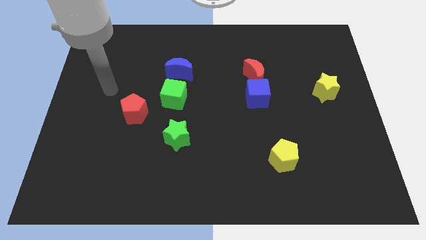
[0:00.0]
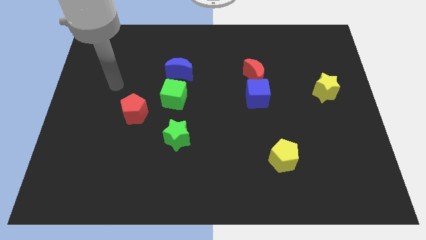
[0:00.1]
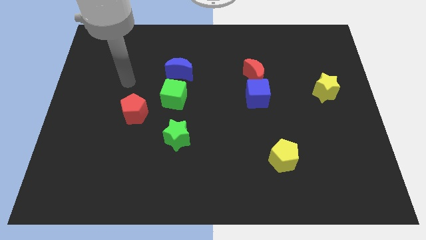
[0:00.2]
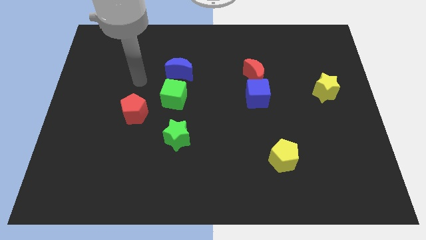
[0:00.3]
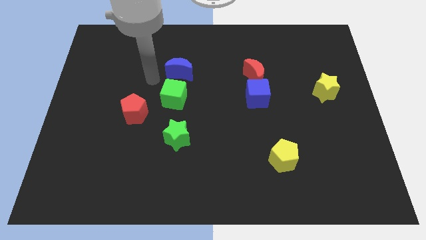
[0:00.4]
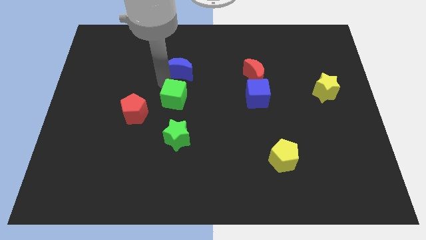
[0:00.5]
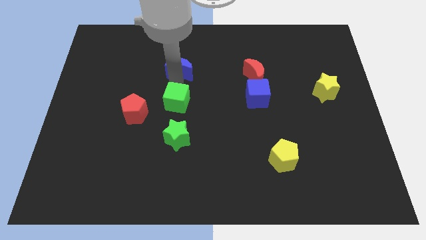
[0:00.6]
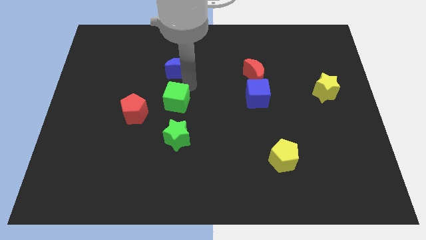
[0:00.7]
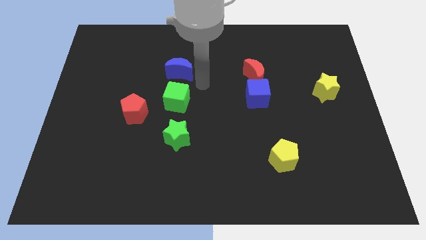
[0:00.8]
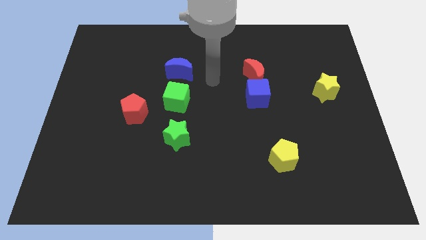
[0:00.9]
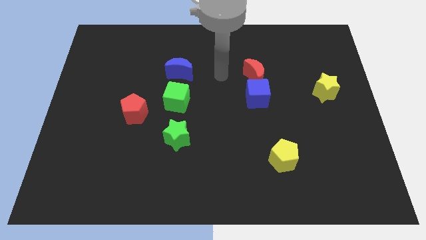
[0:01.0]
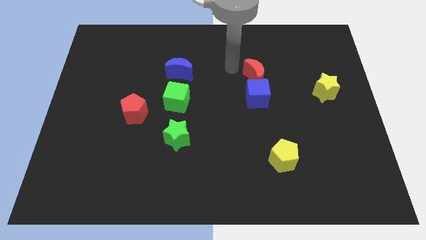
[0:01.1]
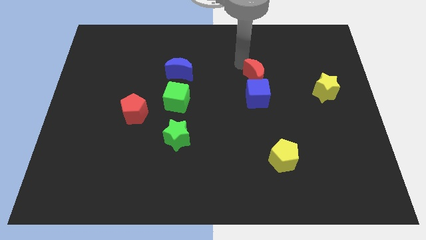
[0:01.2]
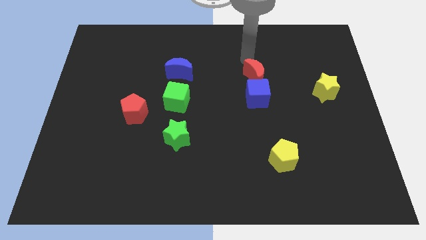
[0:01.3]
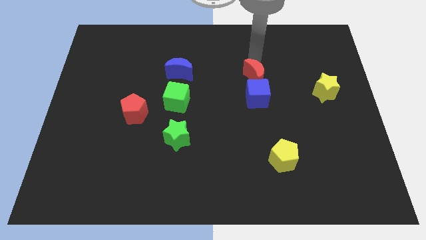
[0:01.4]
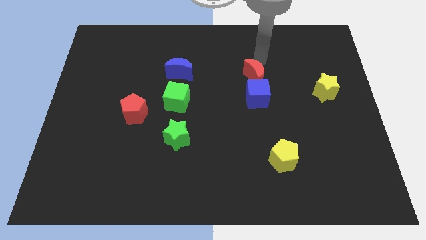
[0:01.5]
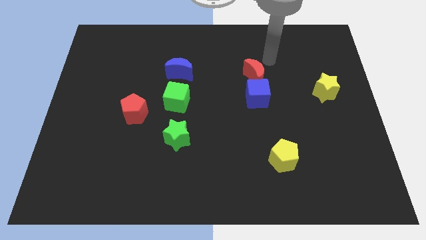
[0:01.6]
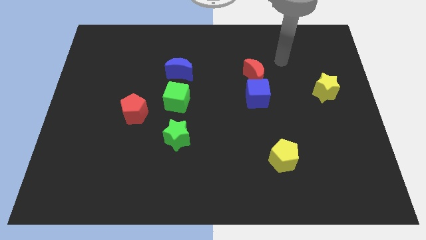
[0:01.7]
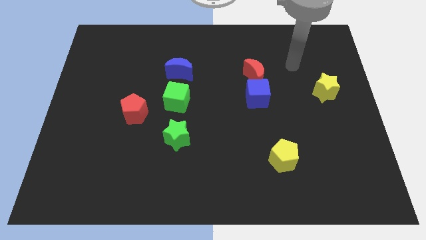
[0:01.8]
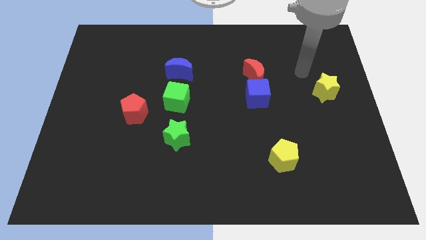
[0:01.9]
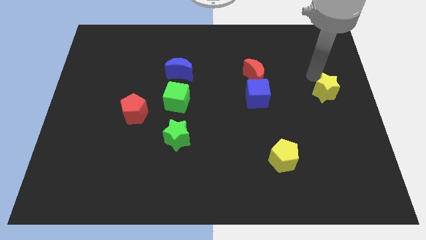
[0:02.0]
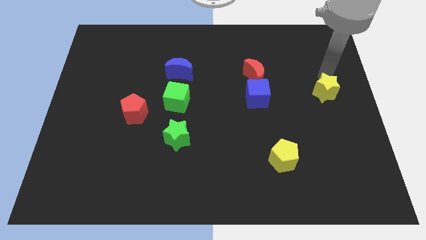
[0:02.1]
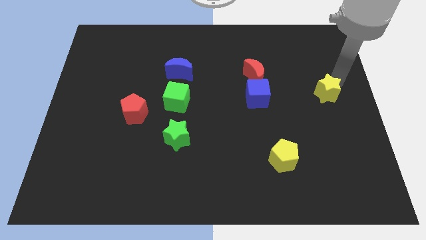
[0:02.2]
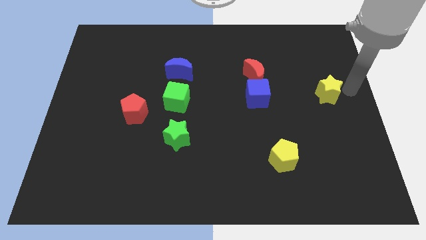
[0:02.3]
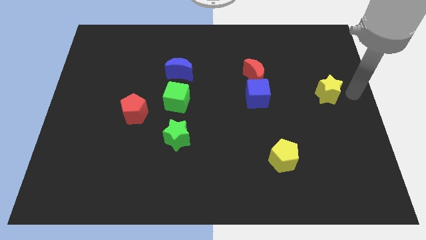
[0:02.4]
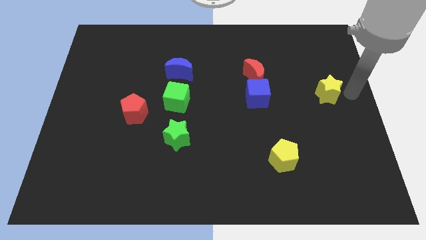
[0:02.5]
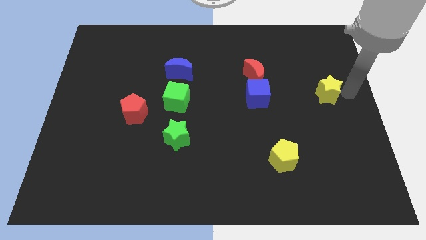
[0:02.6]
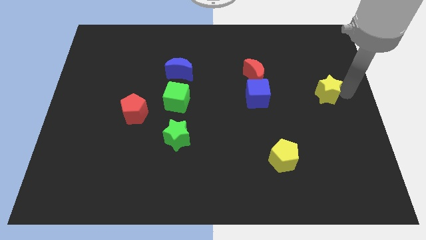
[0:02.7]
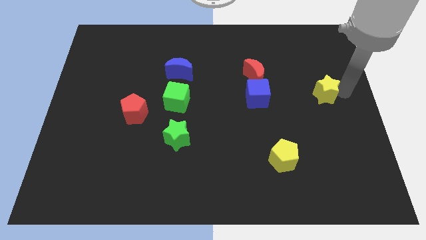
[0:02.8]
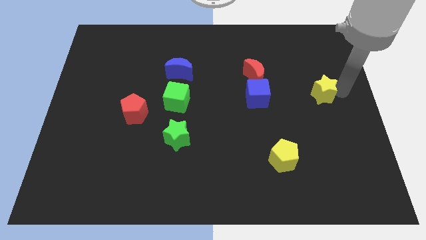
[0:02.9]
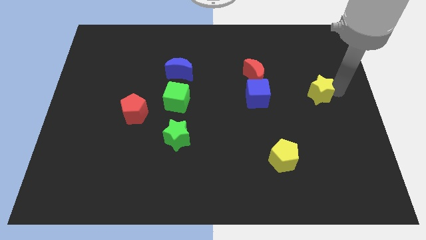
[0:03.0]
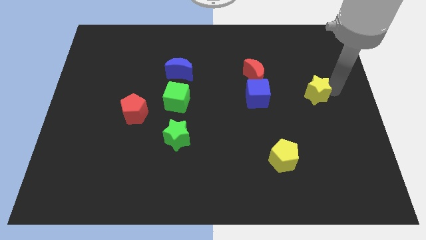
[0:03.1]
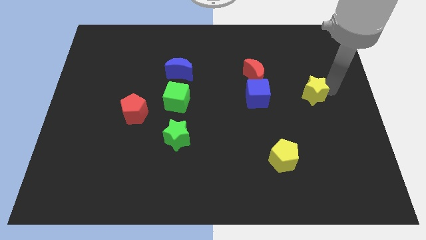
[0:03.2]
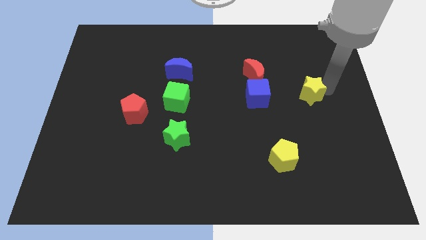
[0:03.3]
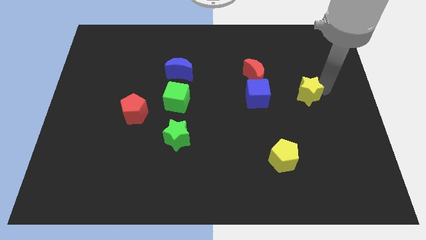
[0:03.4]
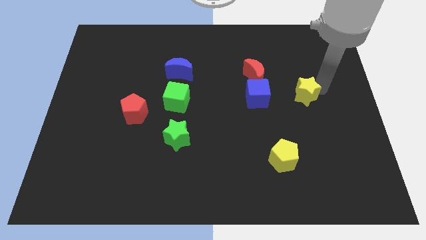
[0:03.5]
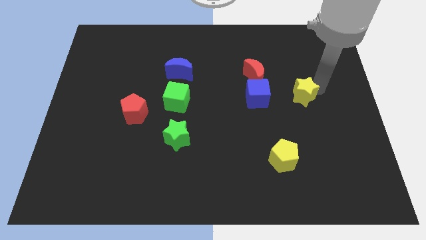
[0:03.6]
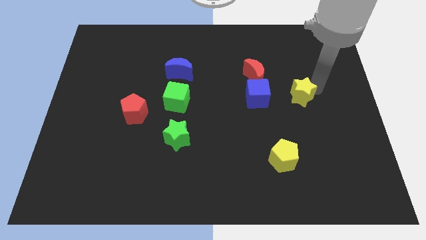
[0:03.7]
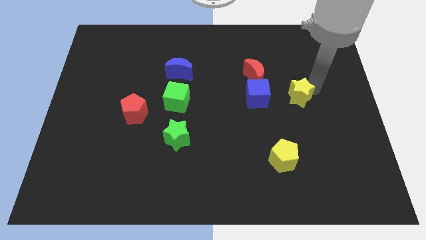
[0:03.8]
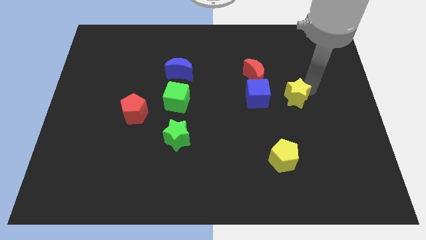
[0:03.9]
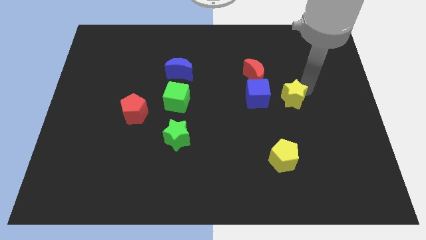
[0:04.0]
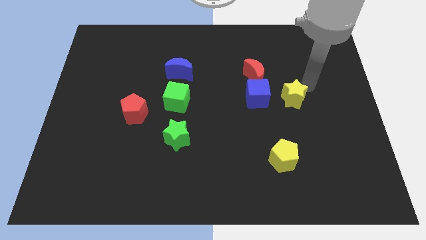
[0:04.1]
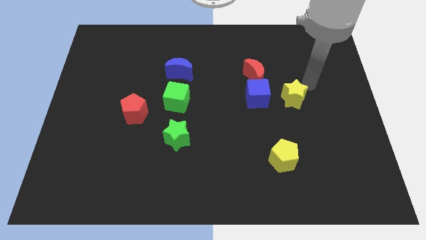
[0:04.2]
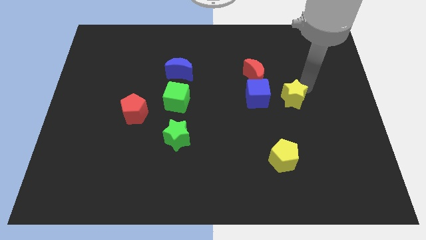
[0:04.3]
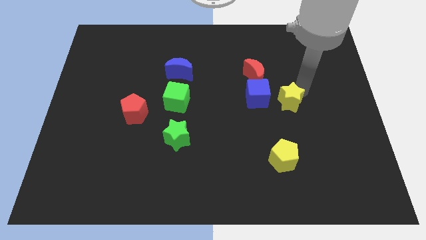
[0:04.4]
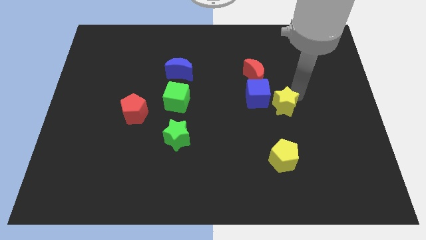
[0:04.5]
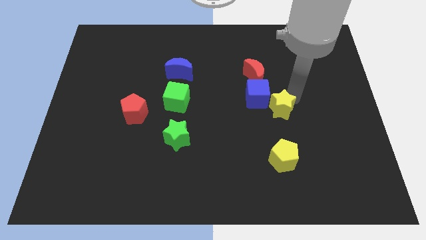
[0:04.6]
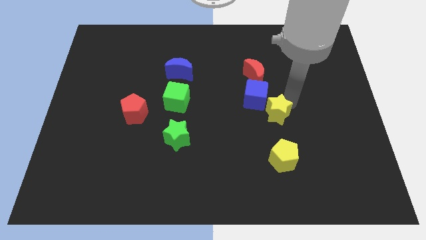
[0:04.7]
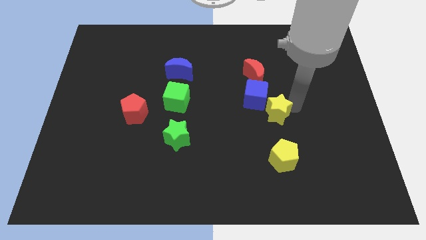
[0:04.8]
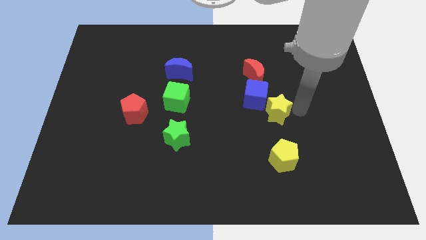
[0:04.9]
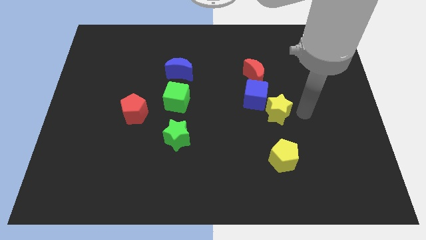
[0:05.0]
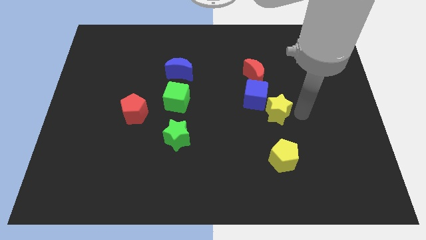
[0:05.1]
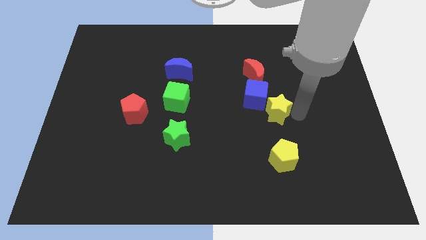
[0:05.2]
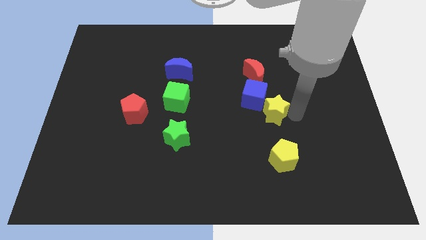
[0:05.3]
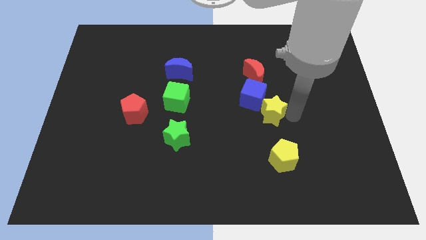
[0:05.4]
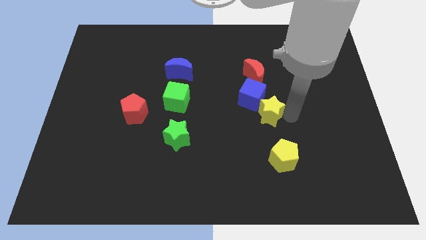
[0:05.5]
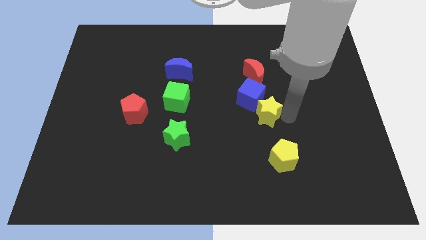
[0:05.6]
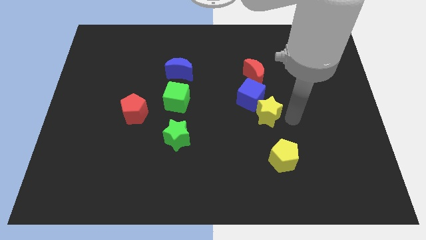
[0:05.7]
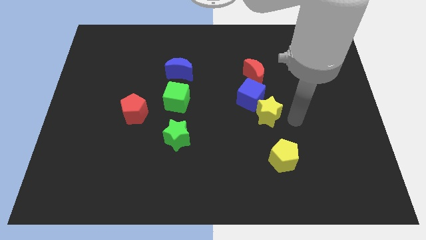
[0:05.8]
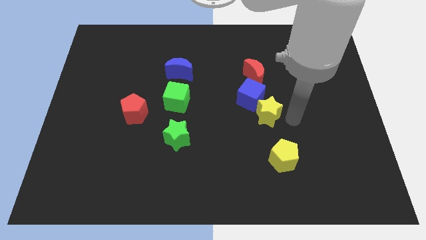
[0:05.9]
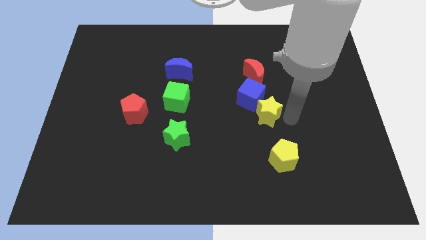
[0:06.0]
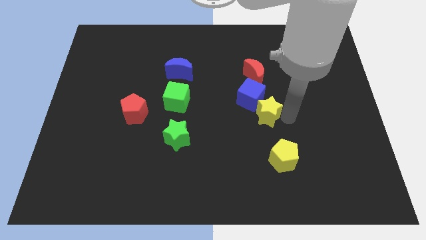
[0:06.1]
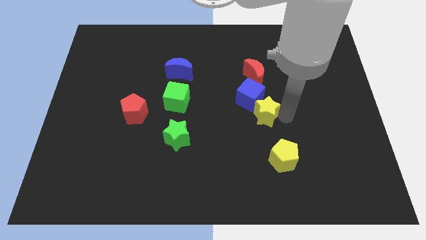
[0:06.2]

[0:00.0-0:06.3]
slide the yellow star to the middle

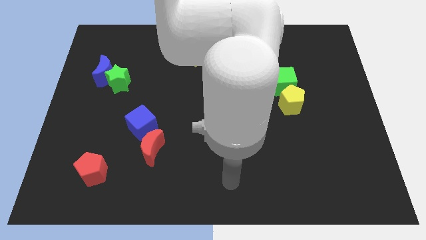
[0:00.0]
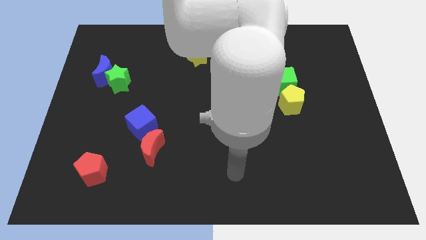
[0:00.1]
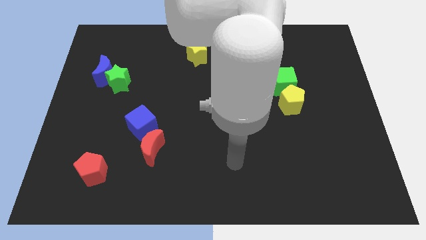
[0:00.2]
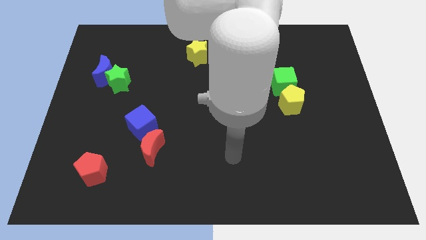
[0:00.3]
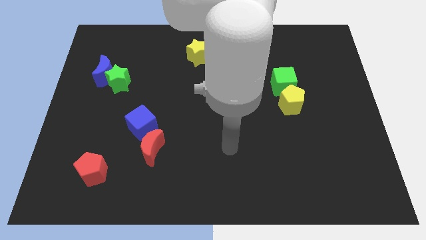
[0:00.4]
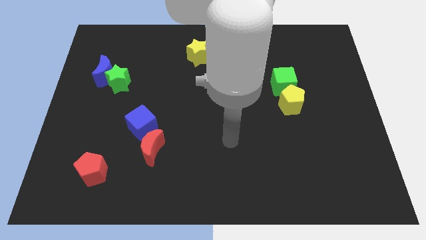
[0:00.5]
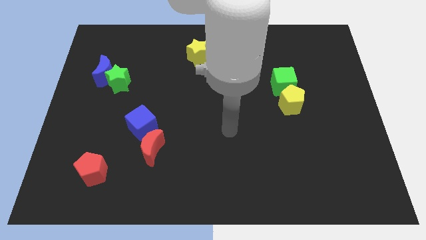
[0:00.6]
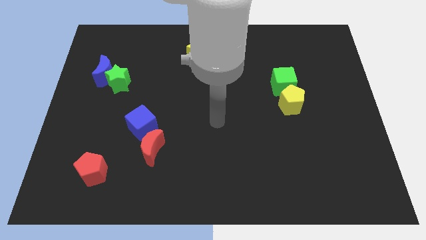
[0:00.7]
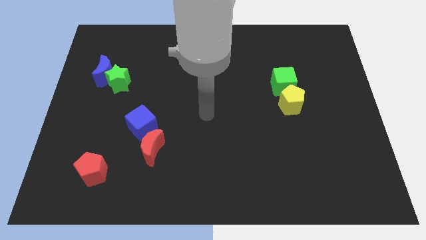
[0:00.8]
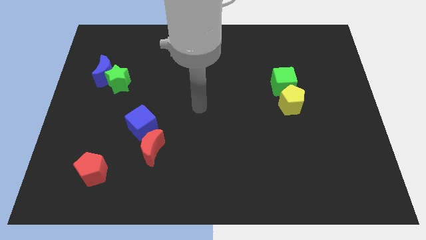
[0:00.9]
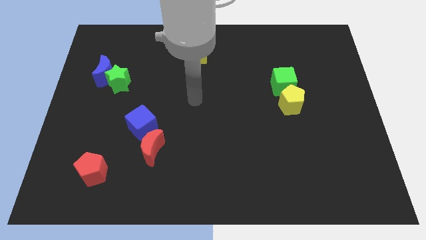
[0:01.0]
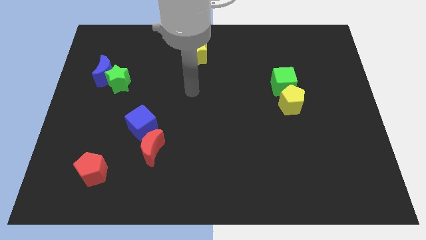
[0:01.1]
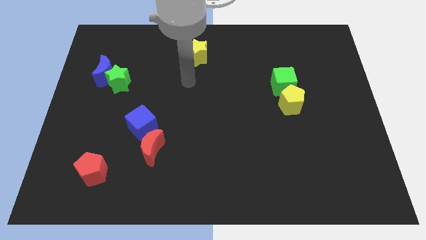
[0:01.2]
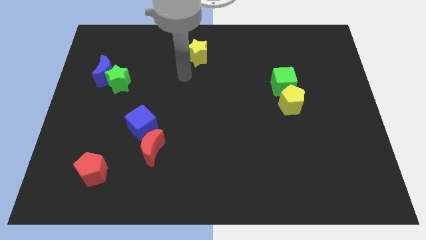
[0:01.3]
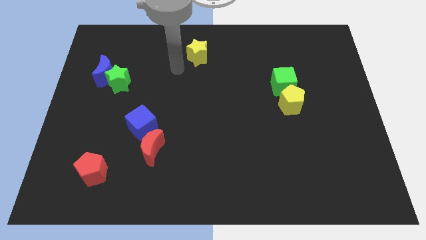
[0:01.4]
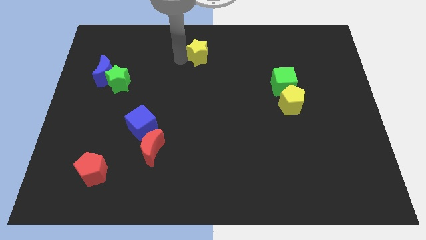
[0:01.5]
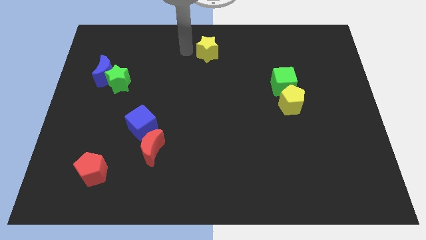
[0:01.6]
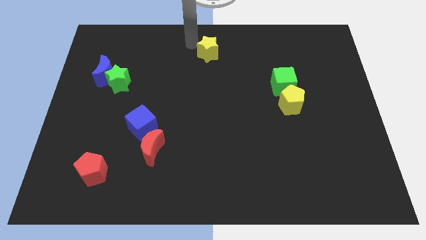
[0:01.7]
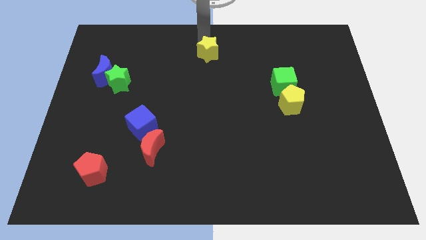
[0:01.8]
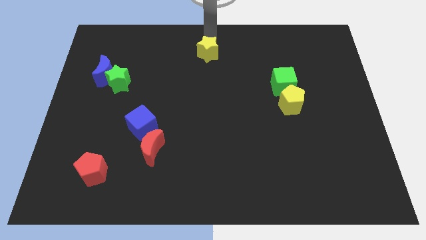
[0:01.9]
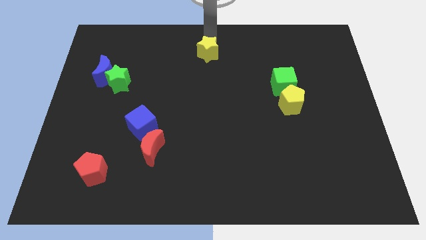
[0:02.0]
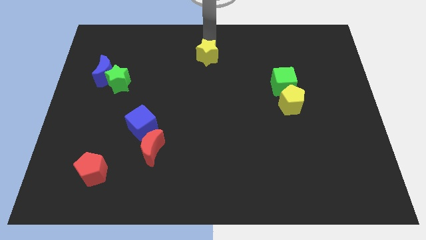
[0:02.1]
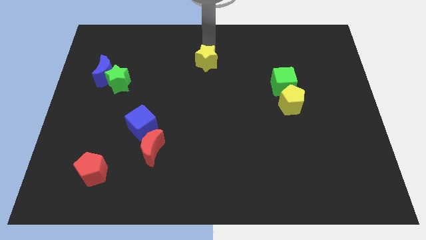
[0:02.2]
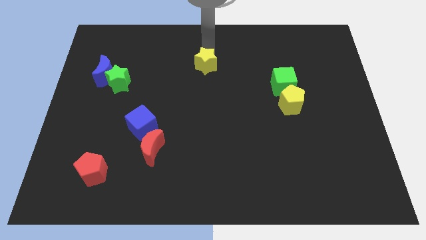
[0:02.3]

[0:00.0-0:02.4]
put the yellow star to the middle
